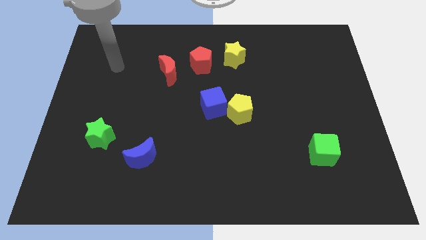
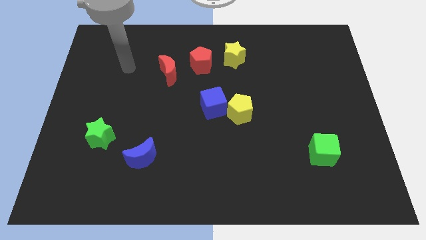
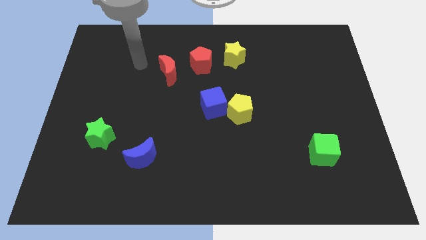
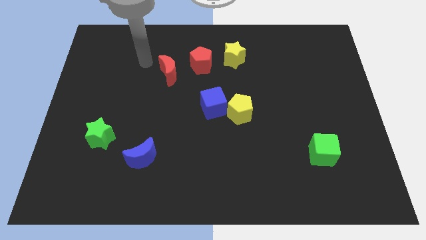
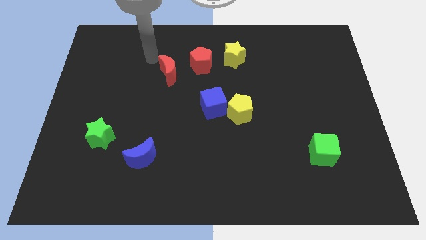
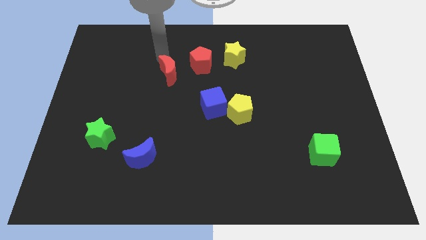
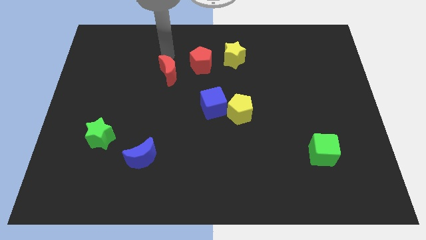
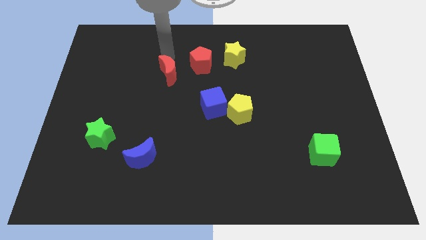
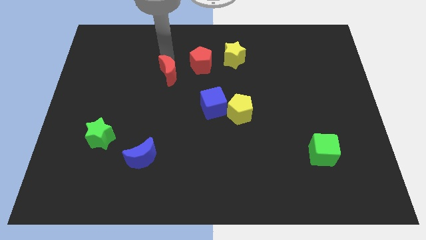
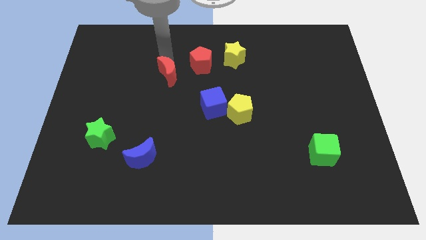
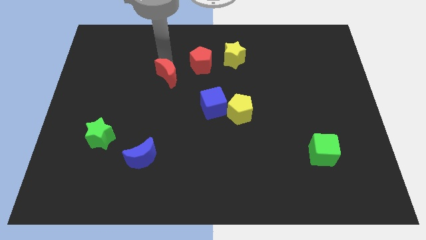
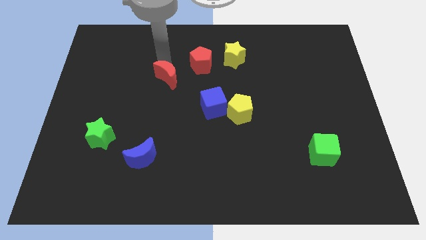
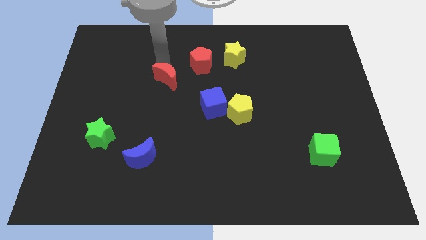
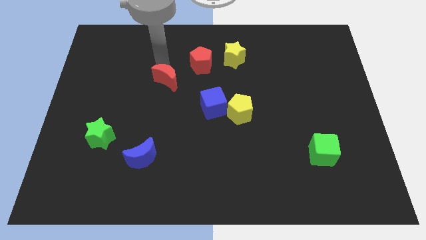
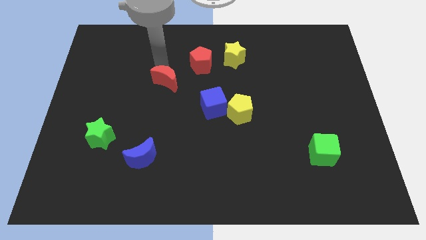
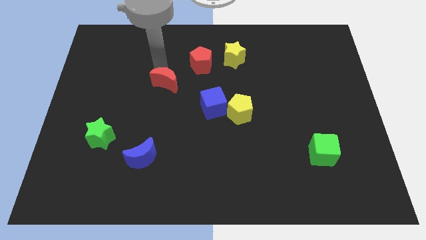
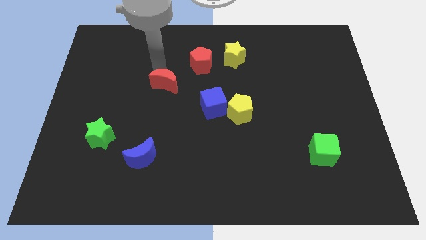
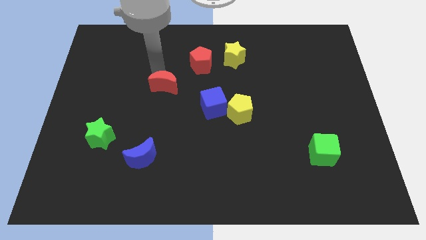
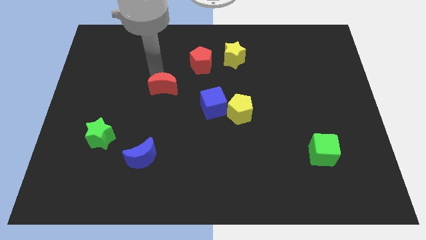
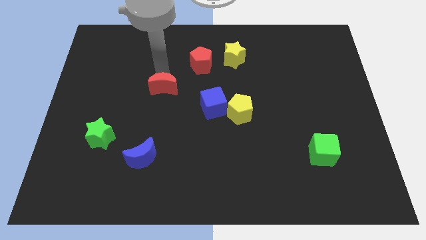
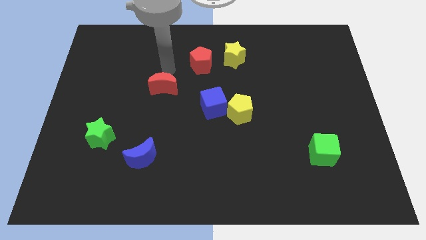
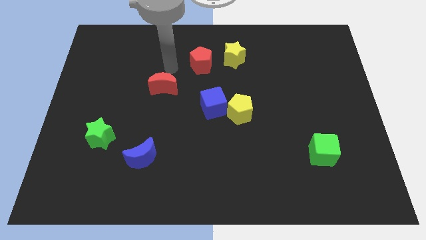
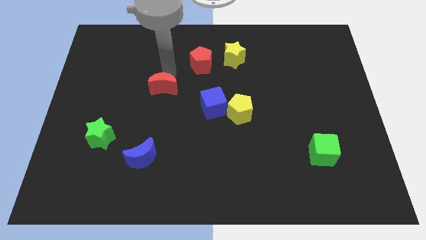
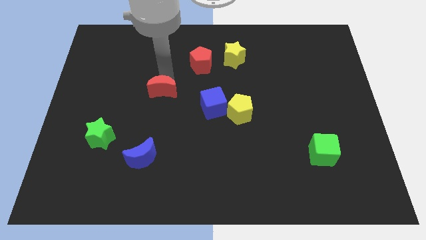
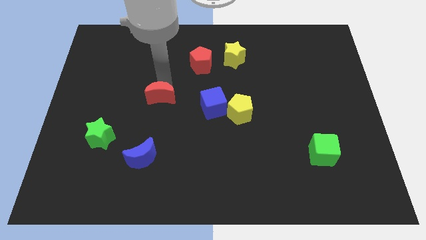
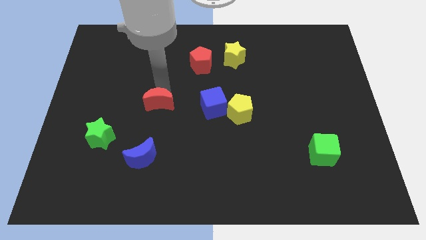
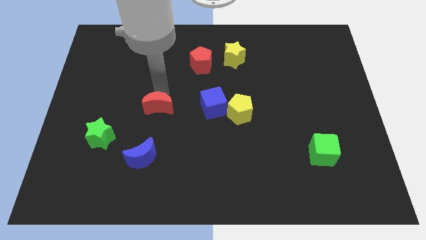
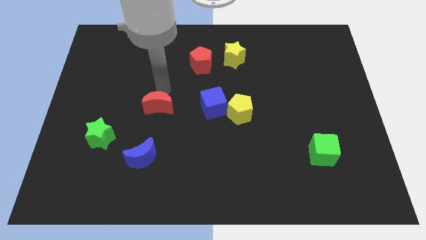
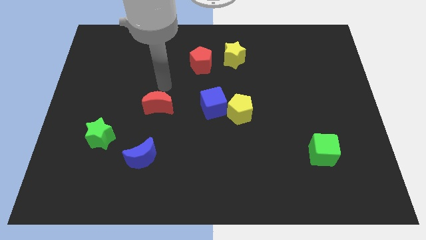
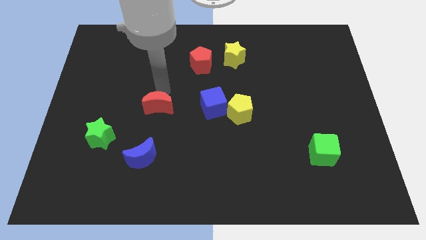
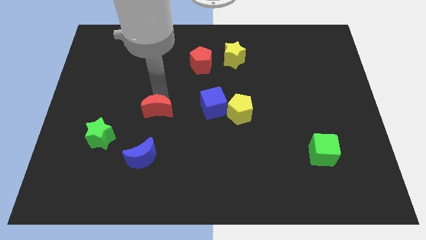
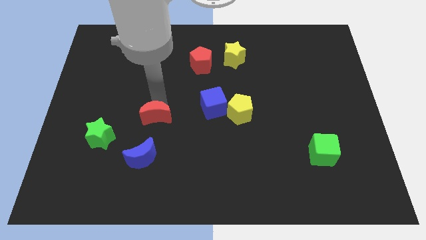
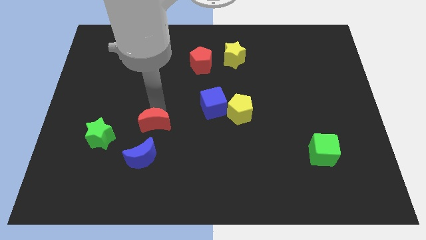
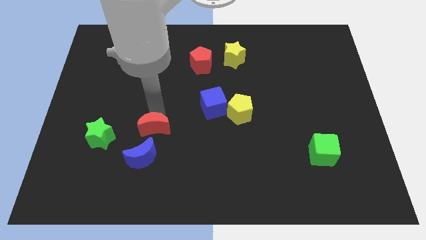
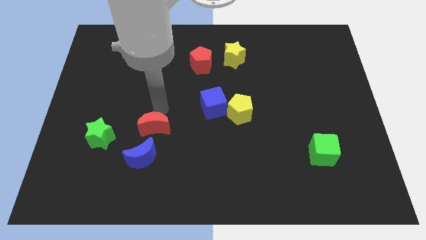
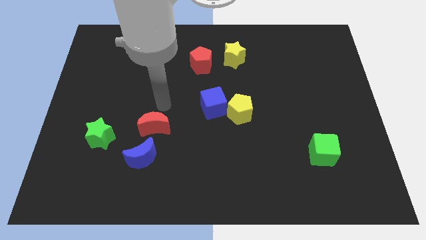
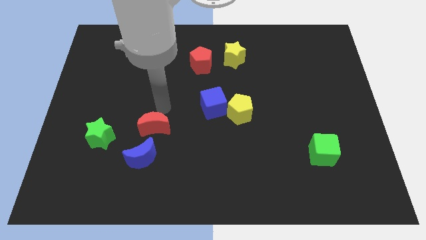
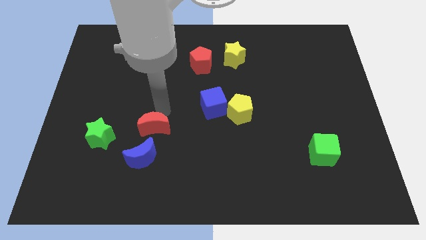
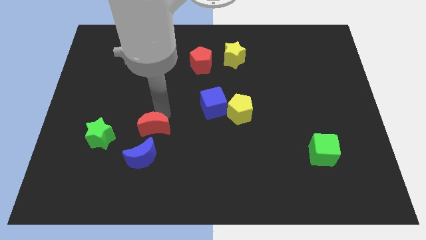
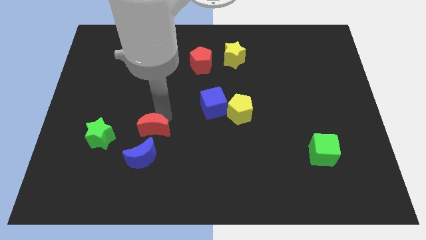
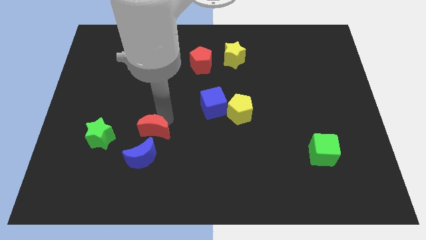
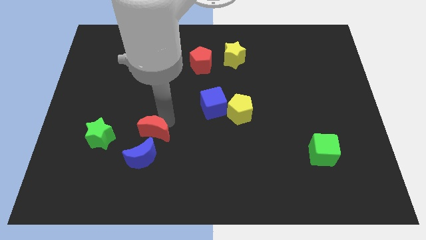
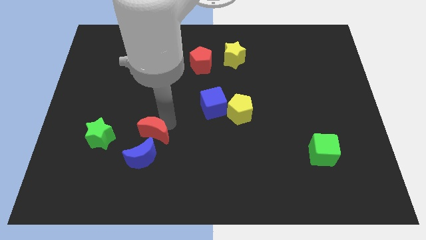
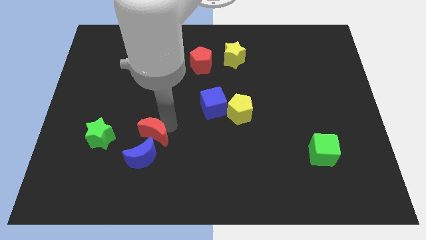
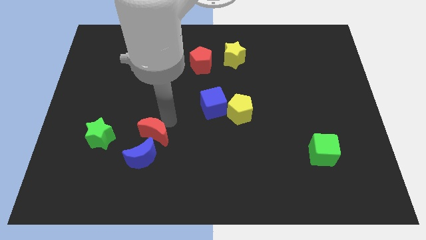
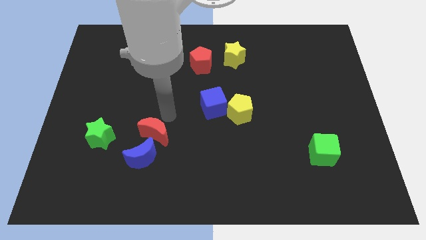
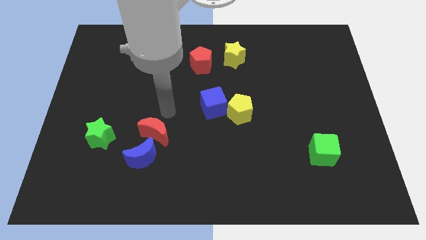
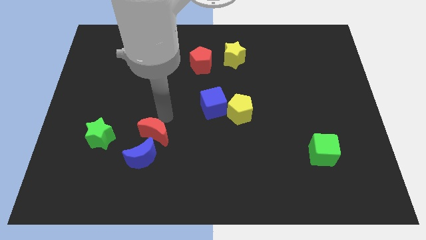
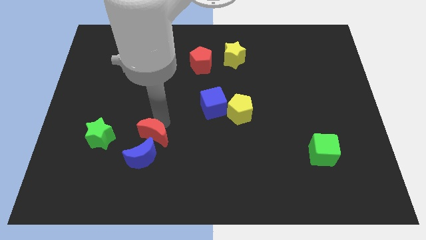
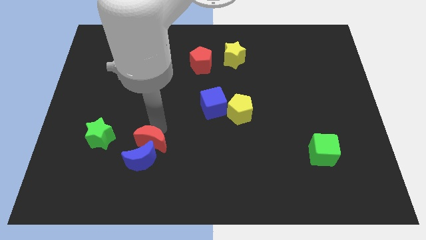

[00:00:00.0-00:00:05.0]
put the red moon towards the blue moon

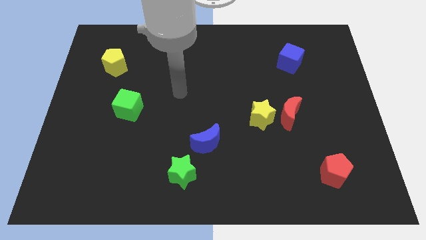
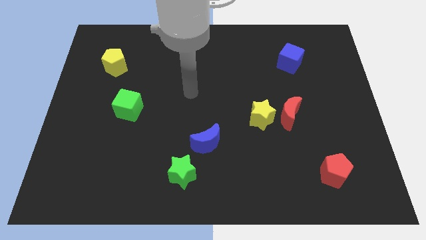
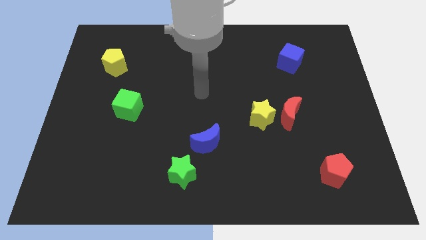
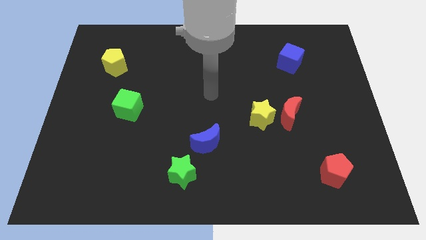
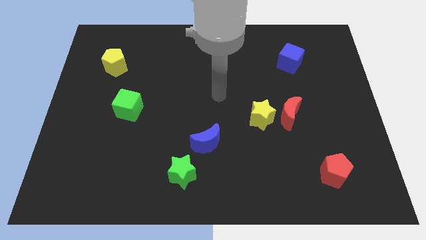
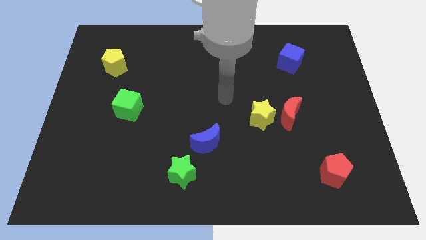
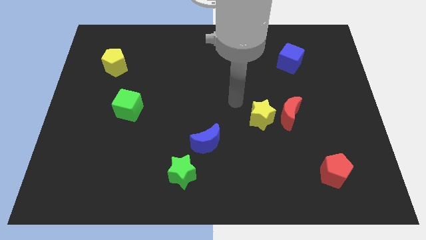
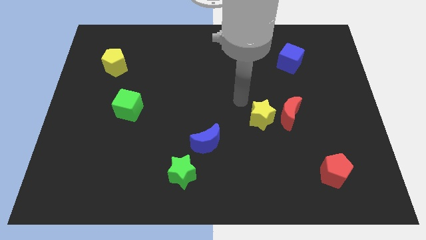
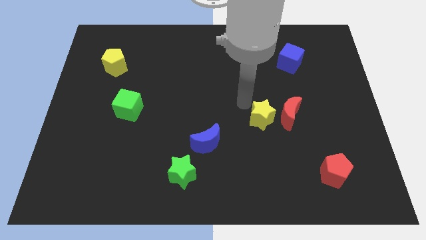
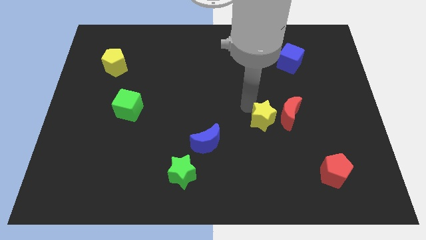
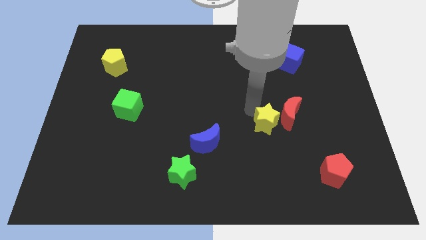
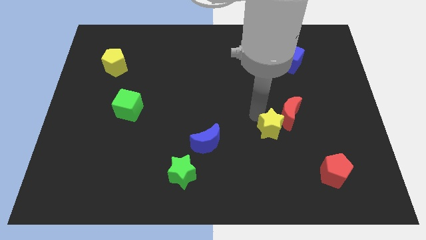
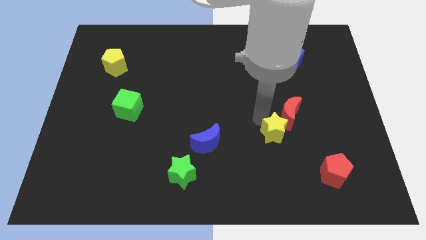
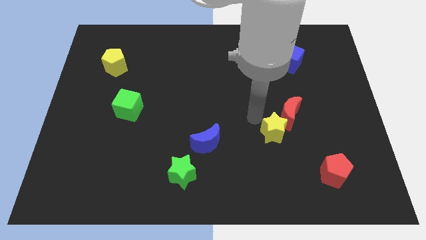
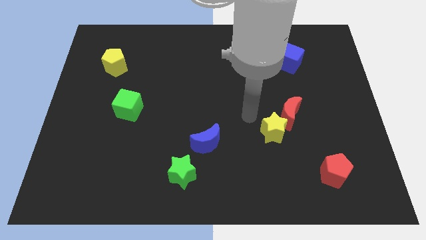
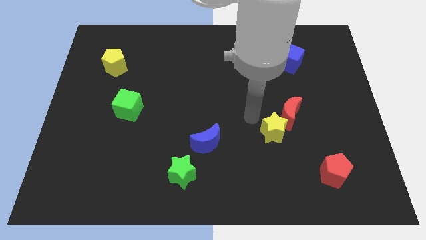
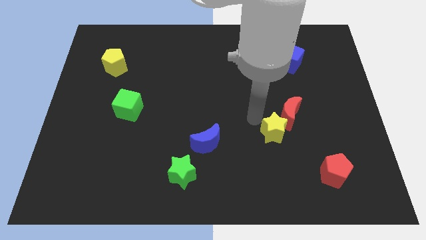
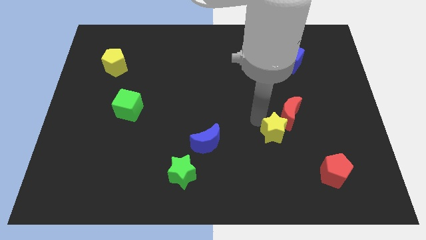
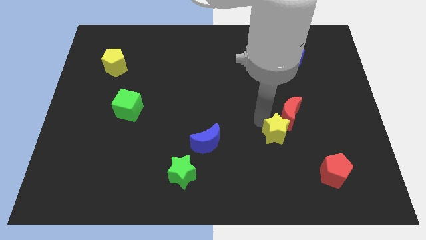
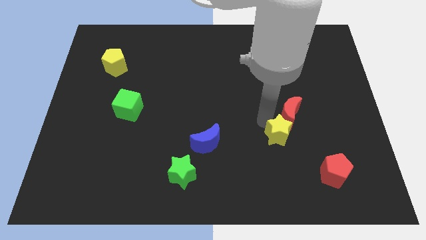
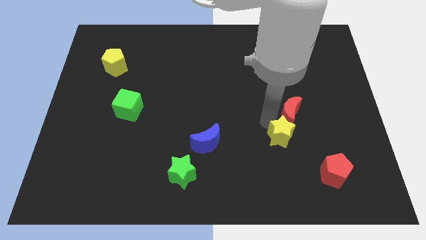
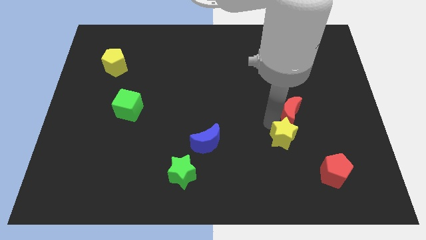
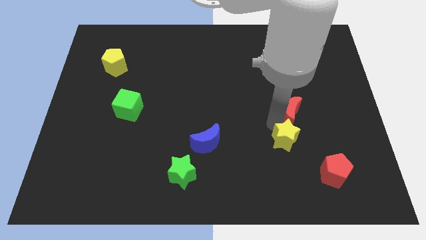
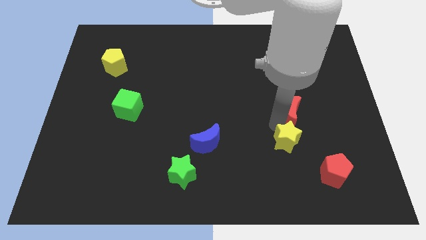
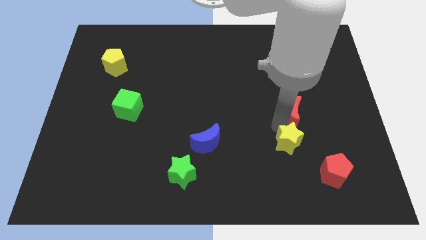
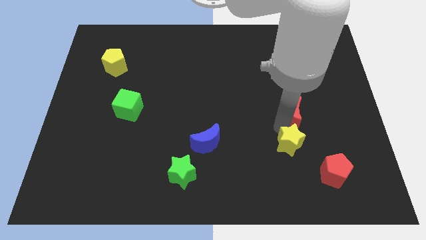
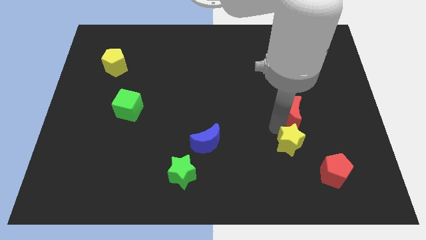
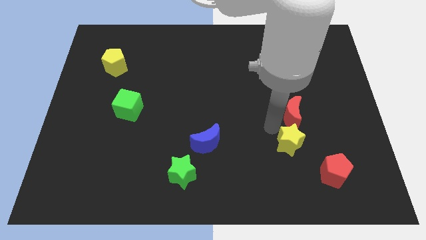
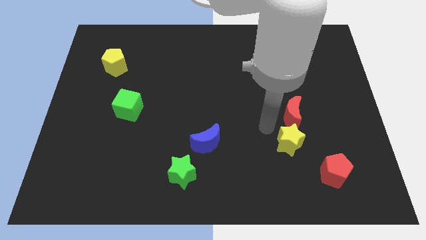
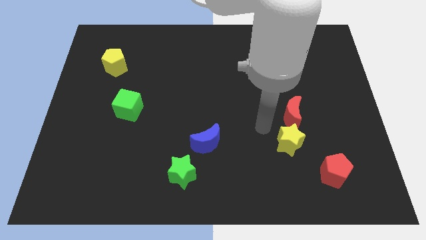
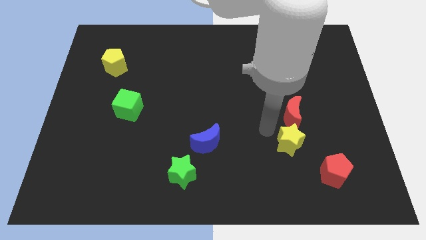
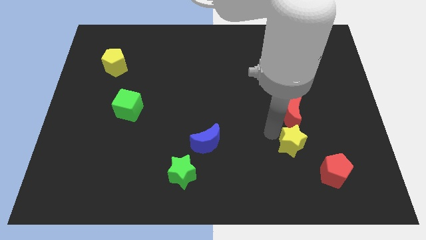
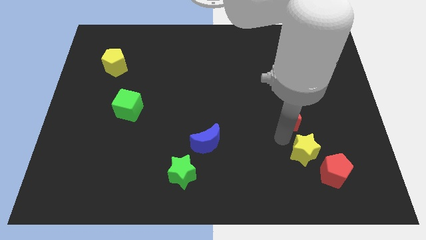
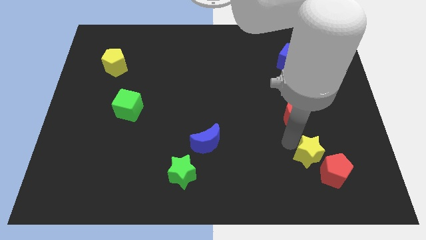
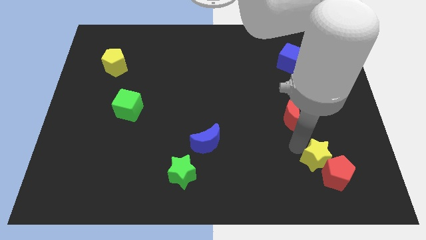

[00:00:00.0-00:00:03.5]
put the yellow star to the red pentagon
